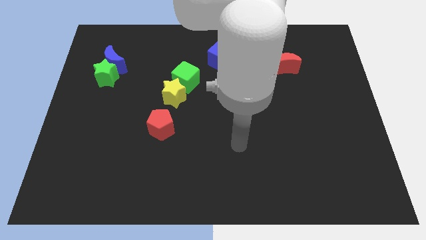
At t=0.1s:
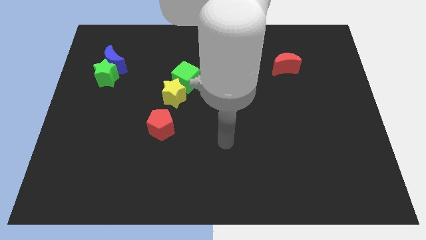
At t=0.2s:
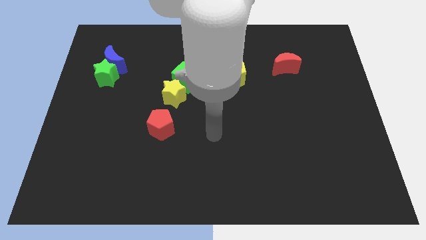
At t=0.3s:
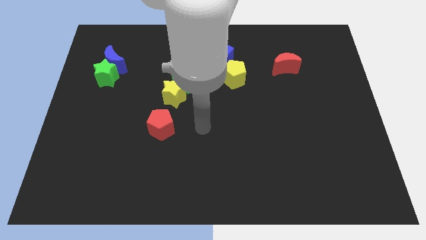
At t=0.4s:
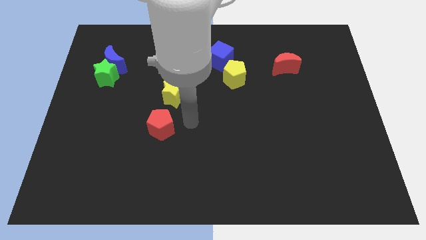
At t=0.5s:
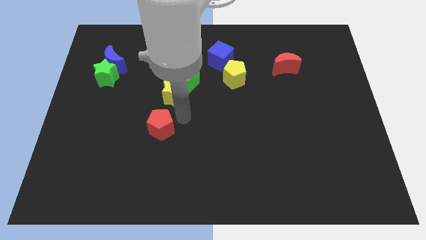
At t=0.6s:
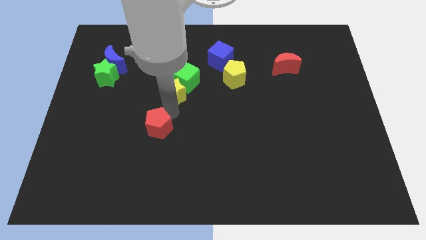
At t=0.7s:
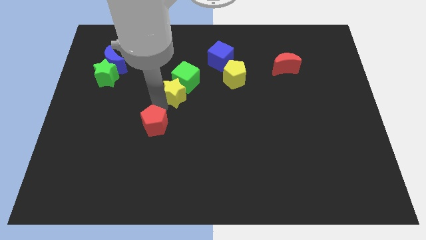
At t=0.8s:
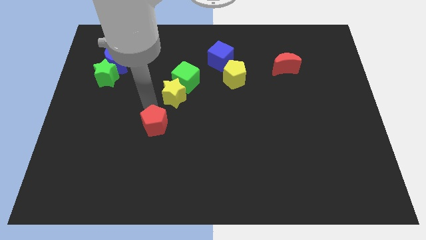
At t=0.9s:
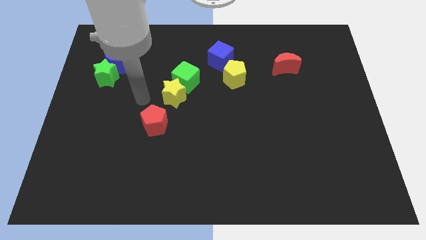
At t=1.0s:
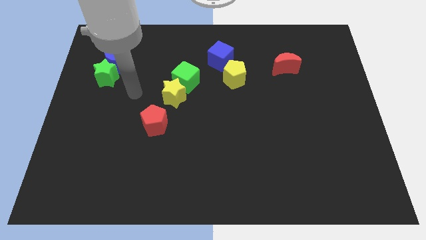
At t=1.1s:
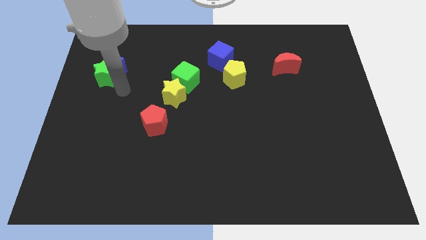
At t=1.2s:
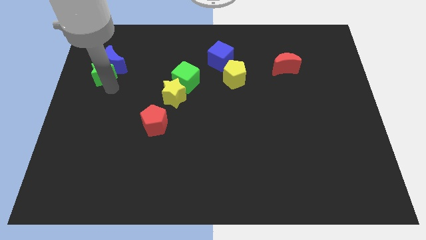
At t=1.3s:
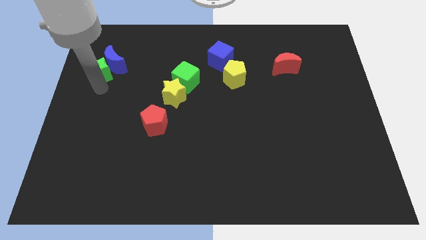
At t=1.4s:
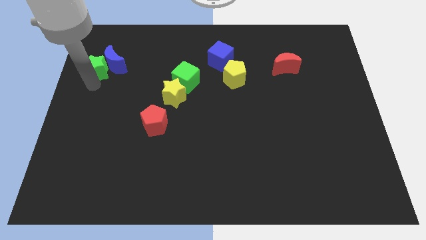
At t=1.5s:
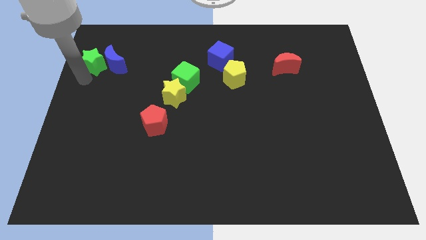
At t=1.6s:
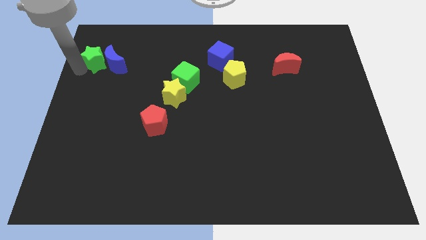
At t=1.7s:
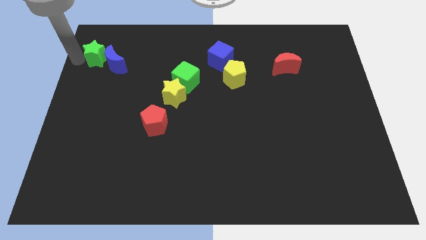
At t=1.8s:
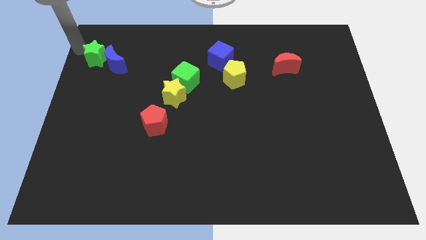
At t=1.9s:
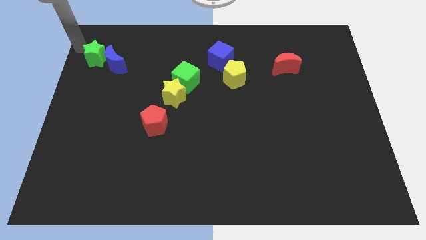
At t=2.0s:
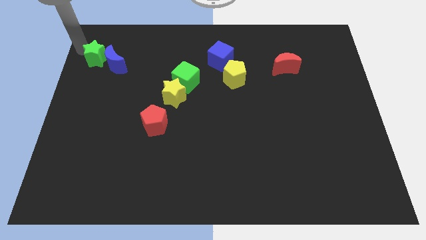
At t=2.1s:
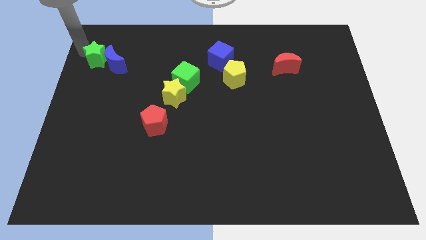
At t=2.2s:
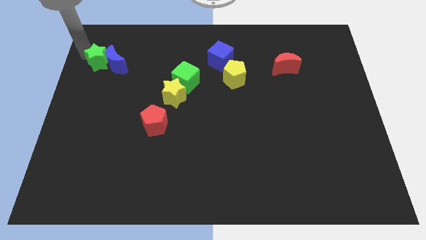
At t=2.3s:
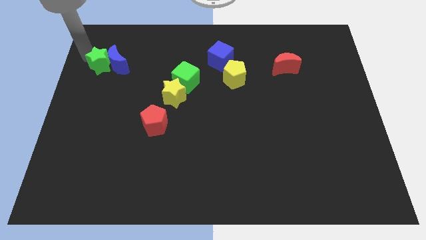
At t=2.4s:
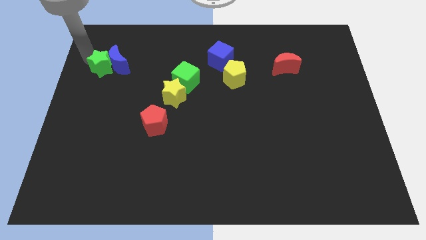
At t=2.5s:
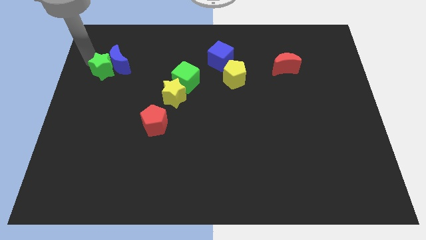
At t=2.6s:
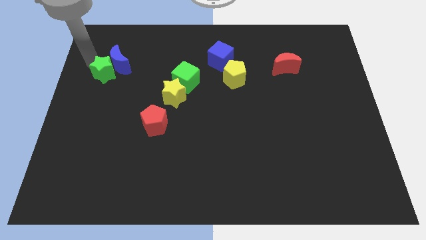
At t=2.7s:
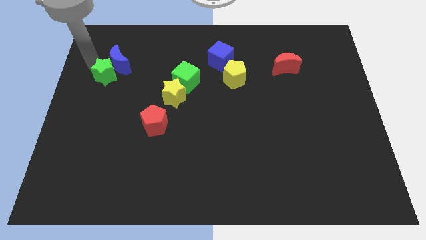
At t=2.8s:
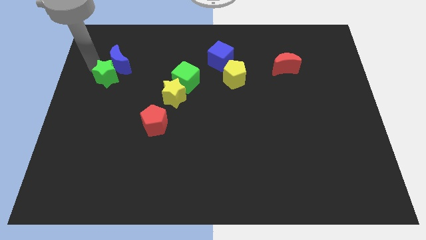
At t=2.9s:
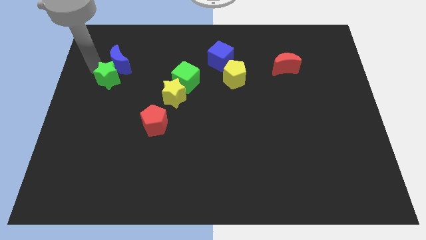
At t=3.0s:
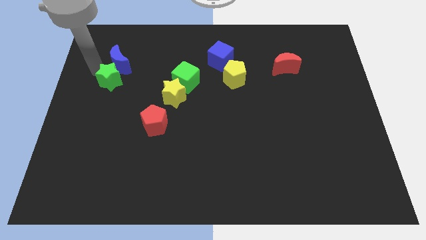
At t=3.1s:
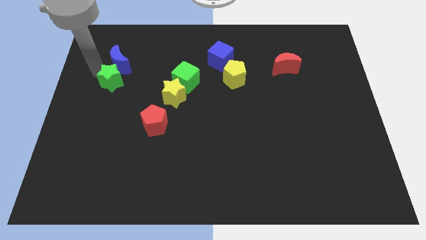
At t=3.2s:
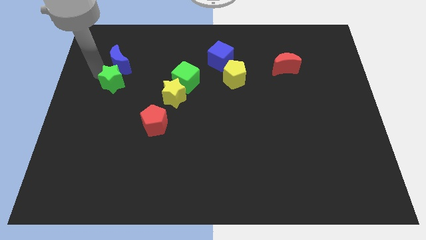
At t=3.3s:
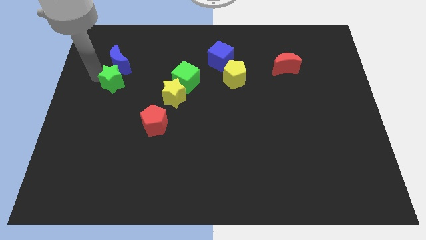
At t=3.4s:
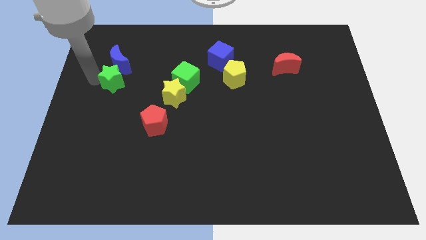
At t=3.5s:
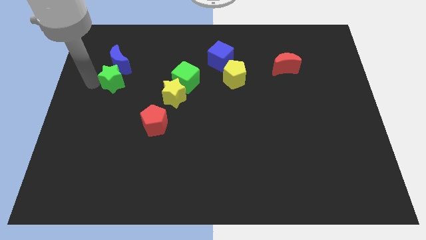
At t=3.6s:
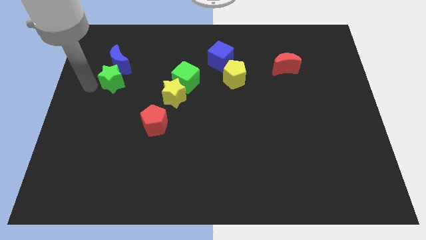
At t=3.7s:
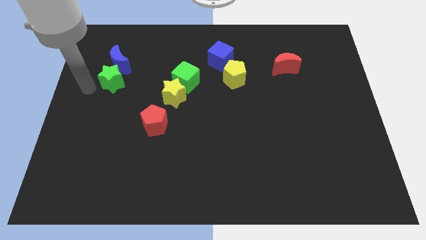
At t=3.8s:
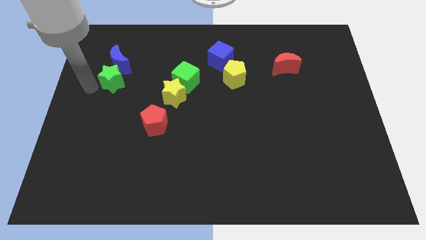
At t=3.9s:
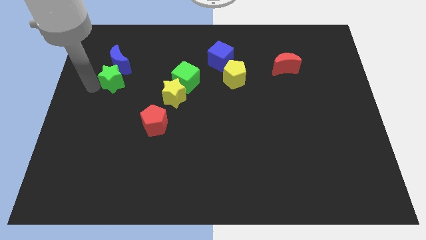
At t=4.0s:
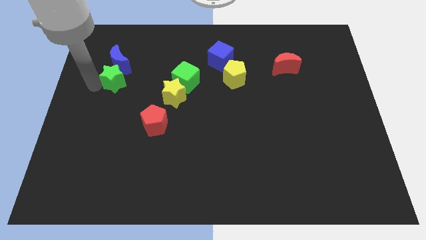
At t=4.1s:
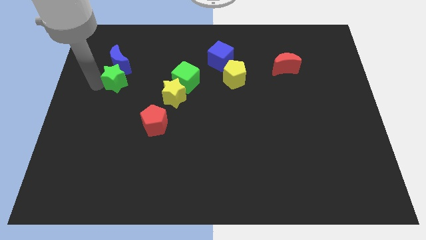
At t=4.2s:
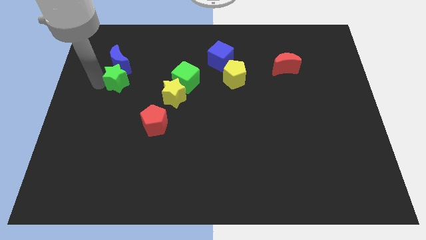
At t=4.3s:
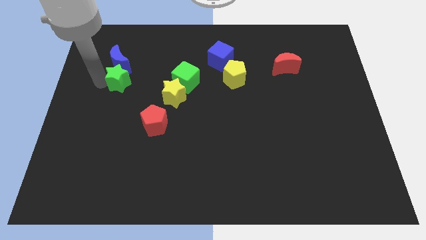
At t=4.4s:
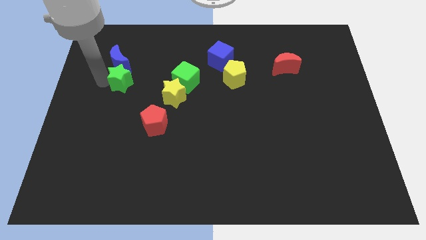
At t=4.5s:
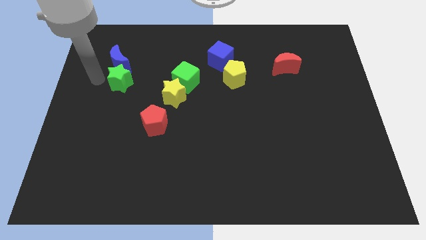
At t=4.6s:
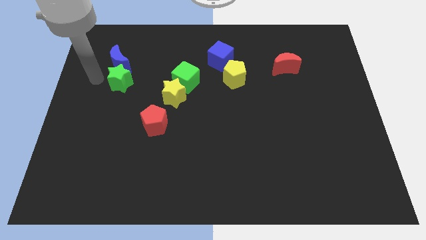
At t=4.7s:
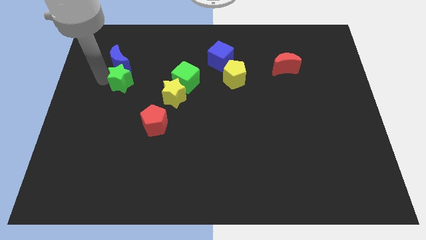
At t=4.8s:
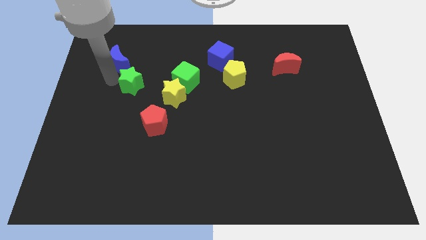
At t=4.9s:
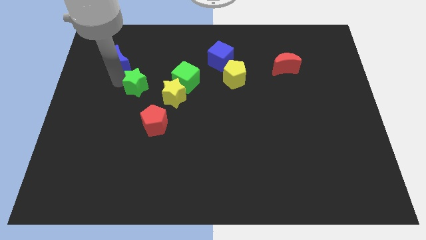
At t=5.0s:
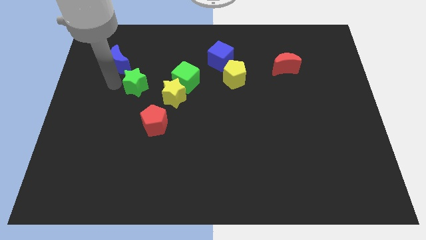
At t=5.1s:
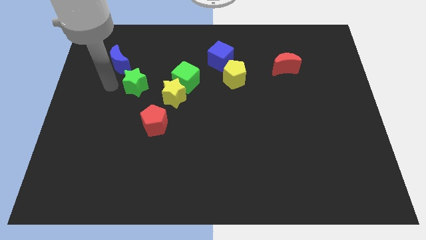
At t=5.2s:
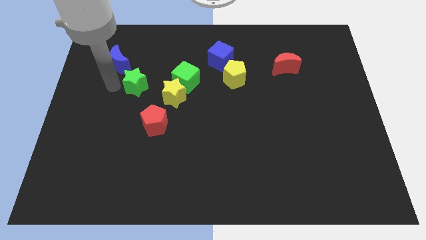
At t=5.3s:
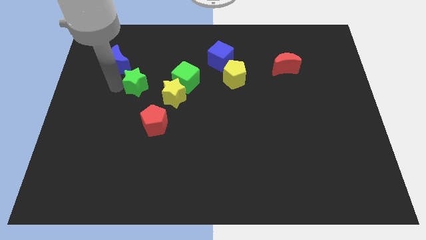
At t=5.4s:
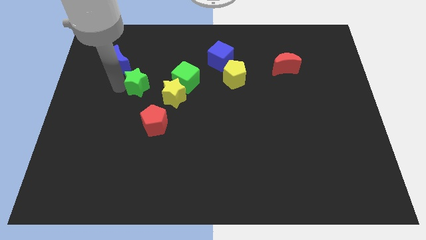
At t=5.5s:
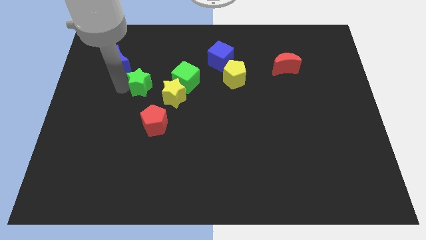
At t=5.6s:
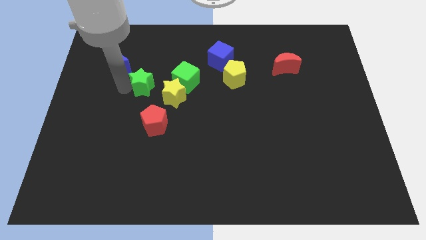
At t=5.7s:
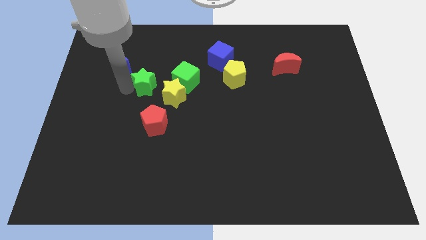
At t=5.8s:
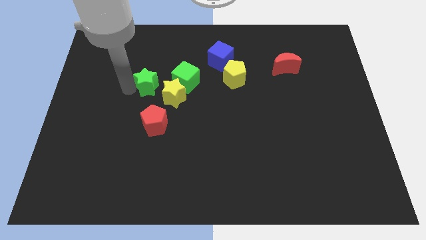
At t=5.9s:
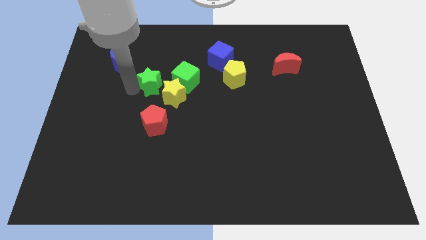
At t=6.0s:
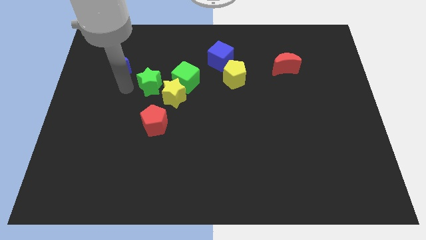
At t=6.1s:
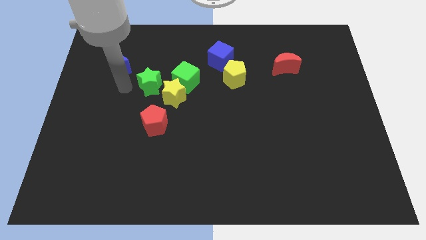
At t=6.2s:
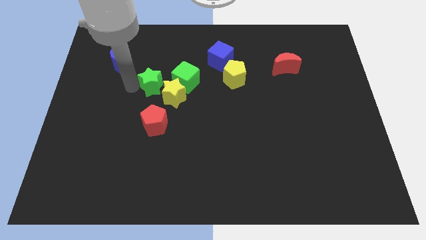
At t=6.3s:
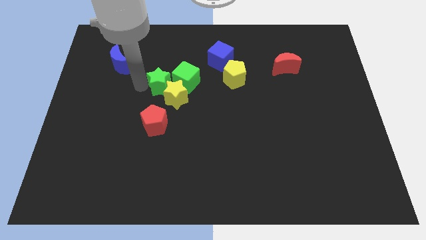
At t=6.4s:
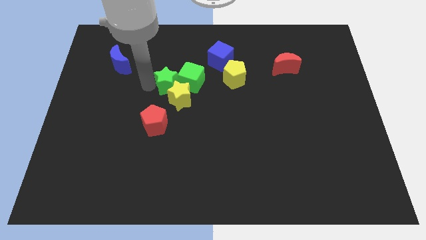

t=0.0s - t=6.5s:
put the green star to the green cube
